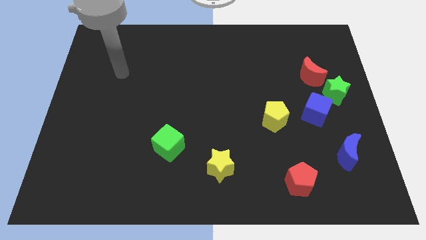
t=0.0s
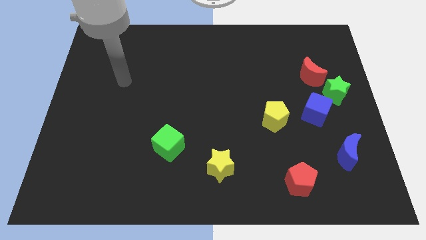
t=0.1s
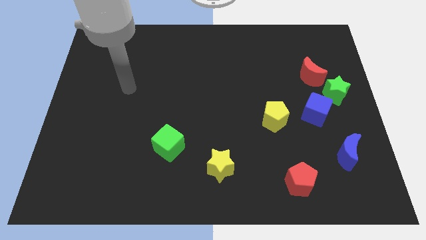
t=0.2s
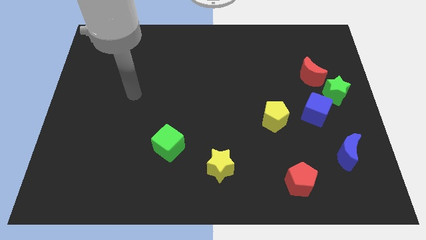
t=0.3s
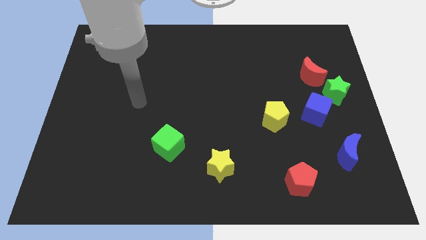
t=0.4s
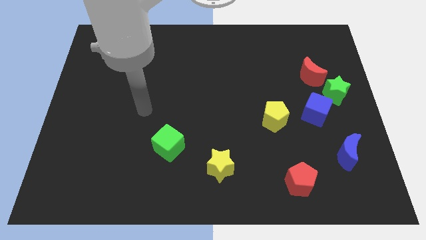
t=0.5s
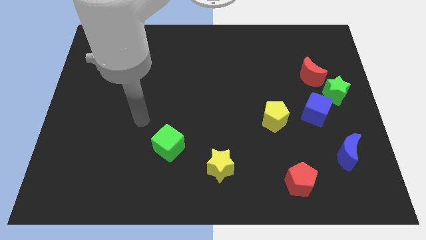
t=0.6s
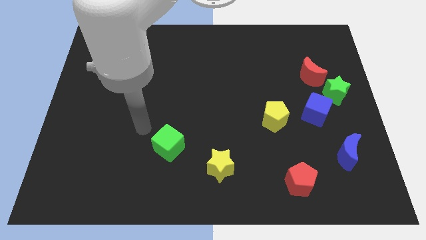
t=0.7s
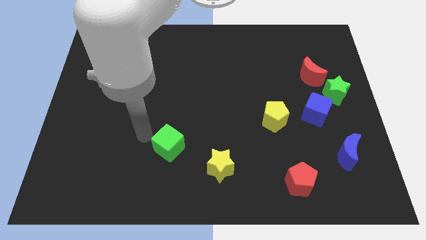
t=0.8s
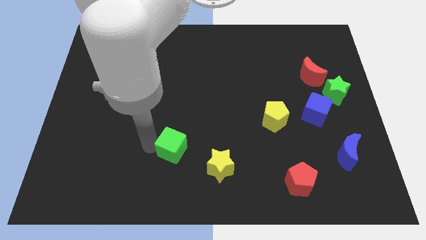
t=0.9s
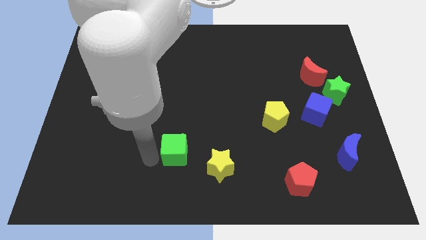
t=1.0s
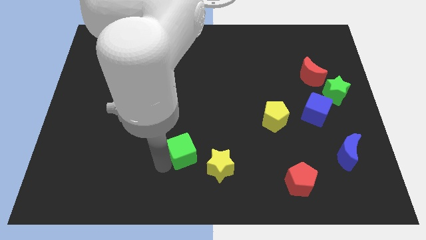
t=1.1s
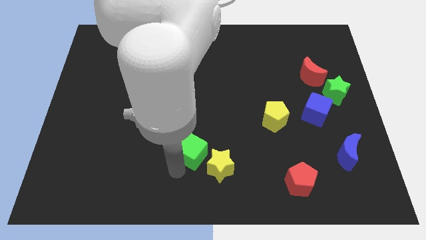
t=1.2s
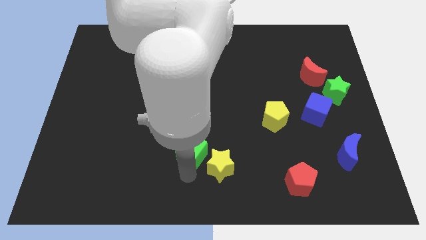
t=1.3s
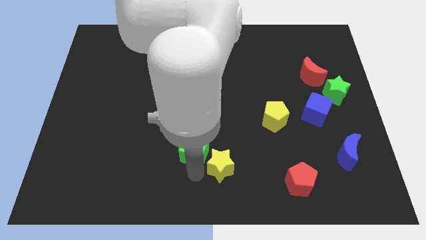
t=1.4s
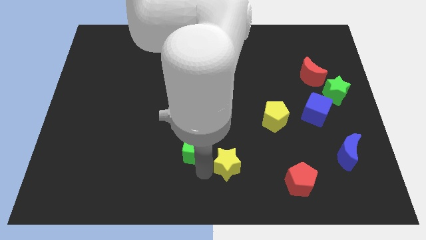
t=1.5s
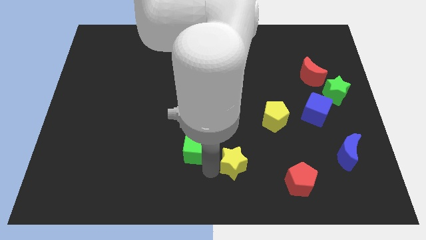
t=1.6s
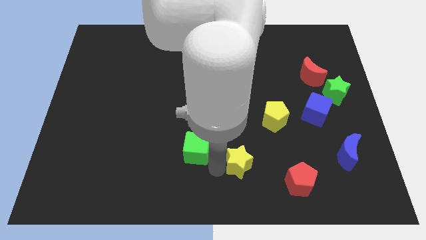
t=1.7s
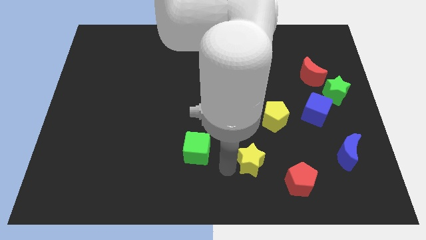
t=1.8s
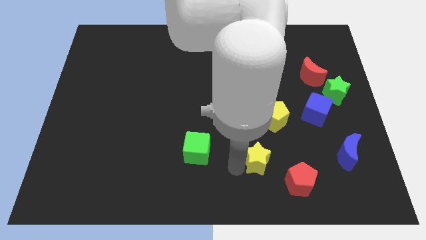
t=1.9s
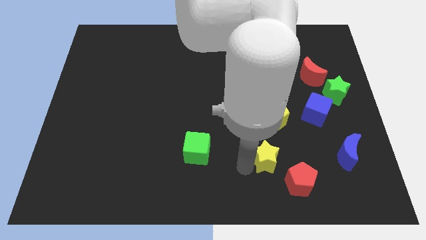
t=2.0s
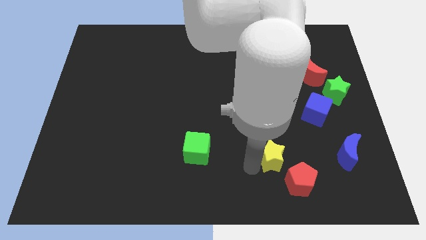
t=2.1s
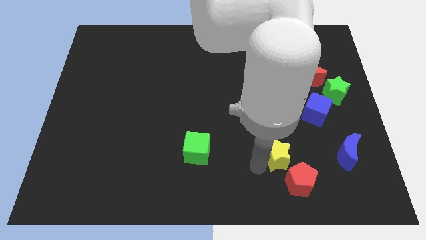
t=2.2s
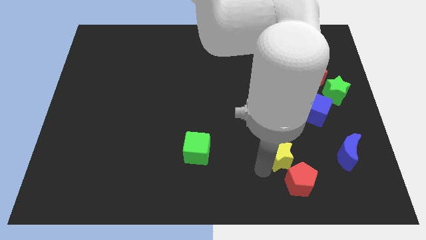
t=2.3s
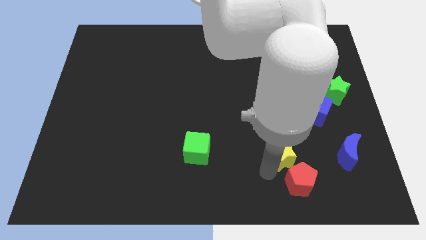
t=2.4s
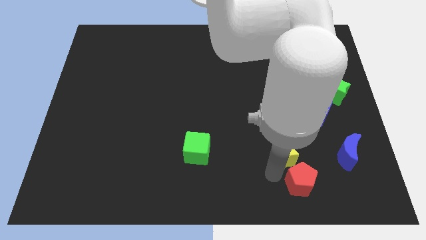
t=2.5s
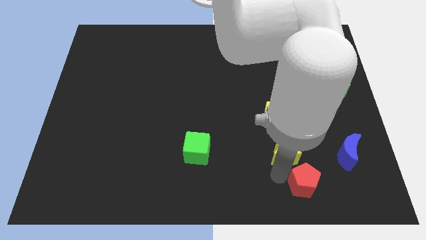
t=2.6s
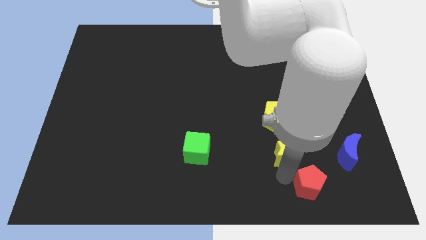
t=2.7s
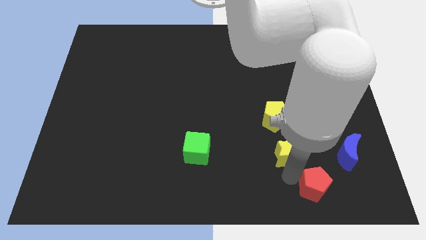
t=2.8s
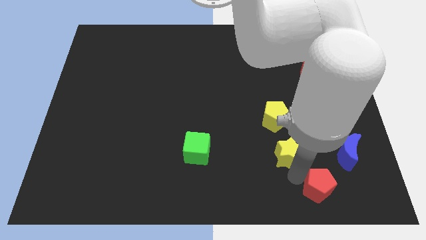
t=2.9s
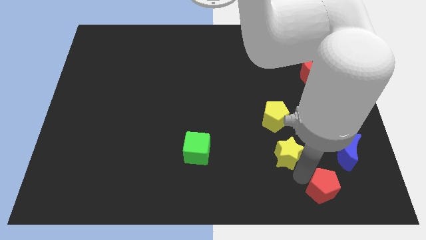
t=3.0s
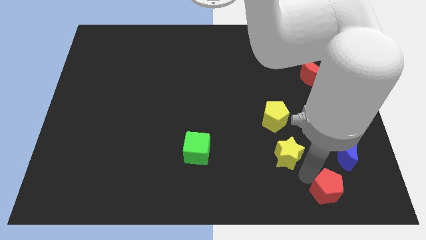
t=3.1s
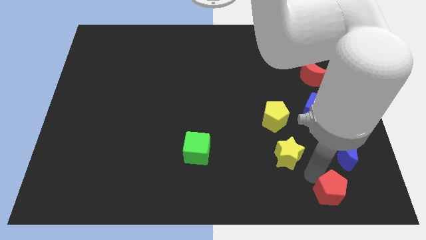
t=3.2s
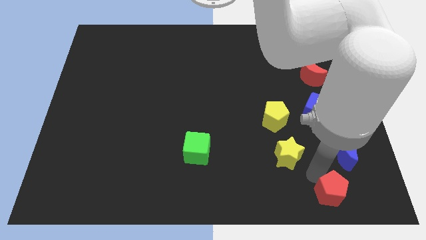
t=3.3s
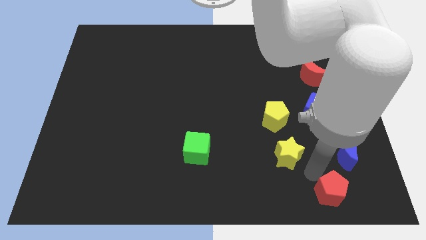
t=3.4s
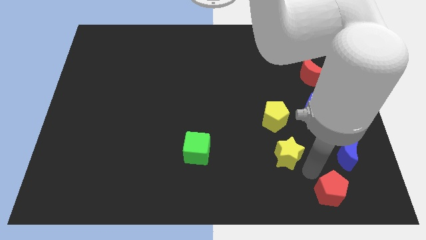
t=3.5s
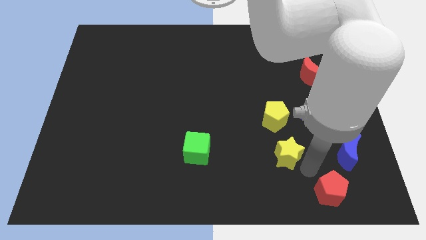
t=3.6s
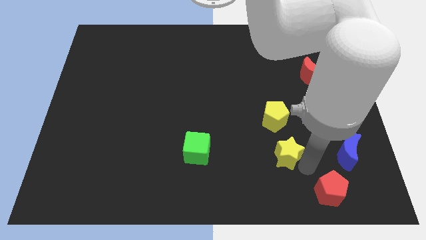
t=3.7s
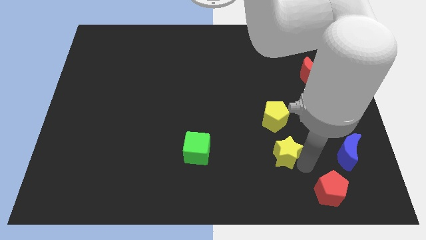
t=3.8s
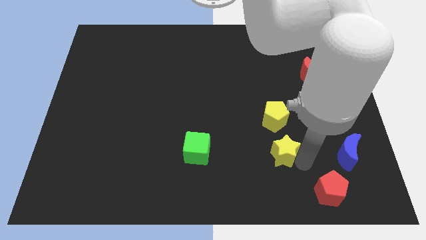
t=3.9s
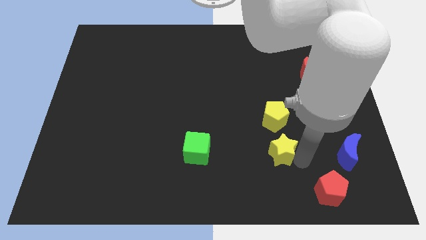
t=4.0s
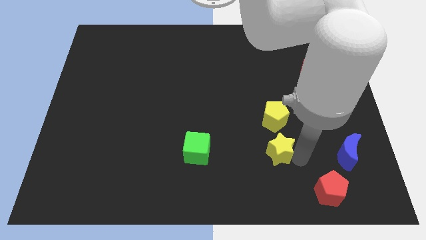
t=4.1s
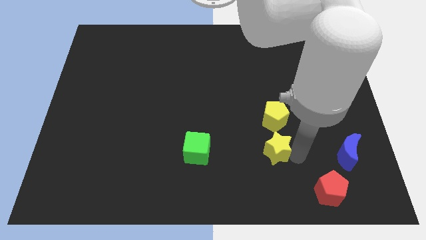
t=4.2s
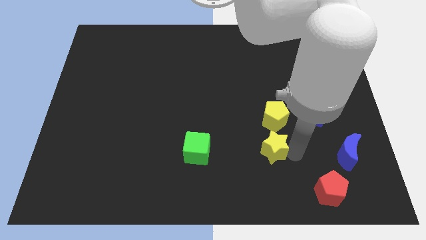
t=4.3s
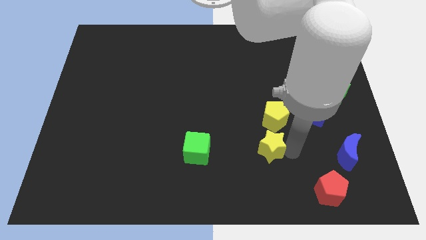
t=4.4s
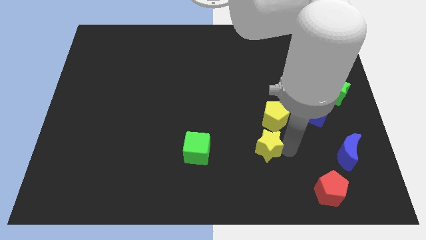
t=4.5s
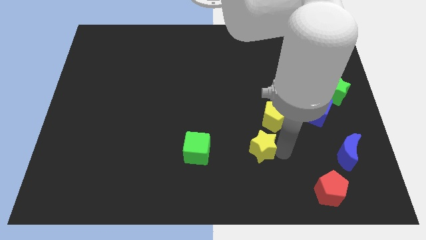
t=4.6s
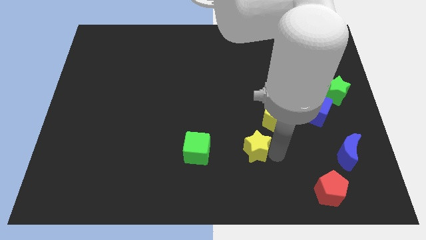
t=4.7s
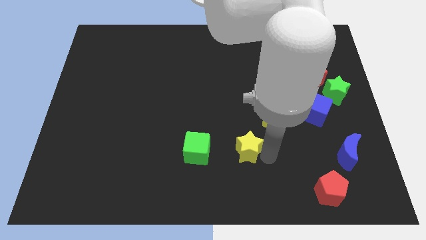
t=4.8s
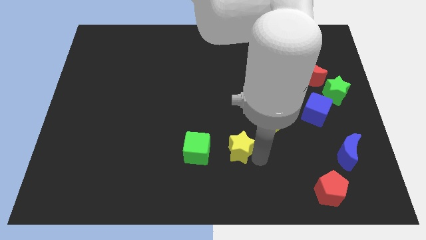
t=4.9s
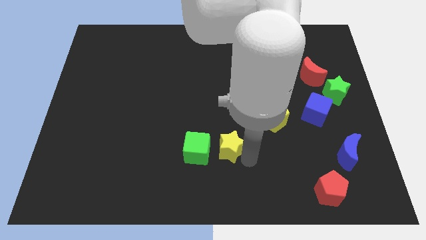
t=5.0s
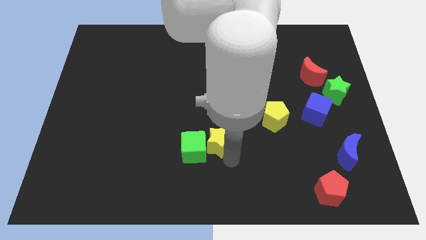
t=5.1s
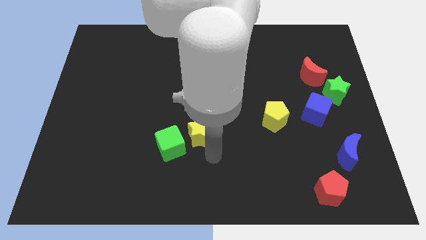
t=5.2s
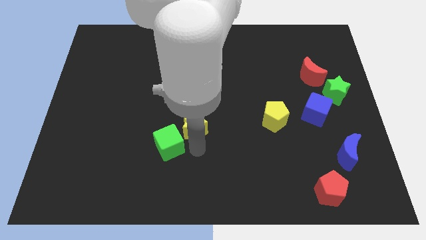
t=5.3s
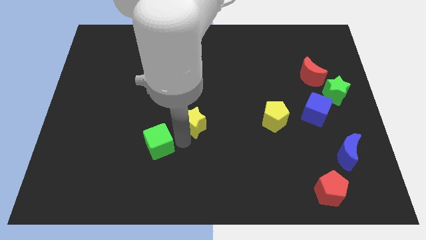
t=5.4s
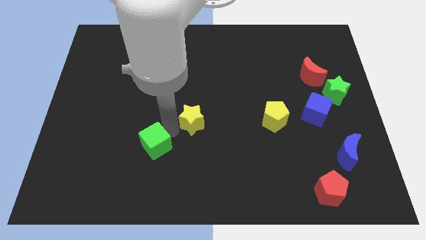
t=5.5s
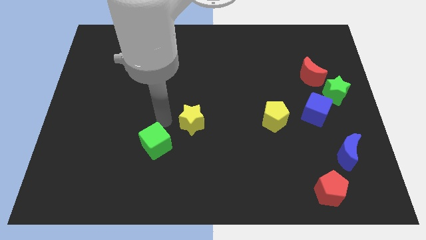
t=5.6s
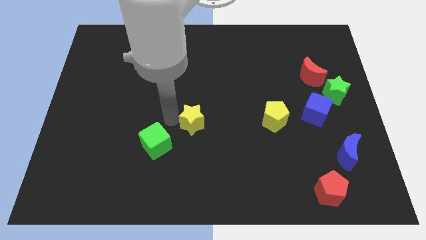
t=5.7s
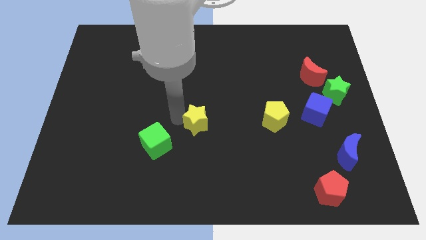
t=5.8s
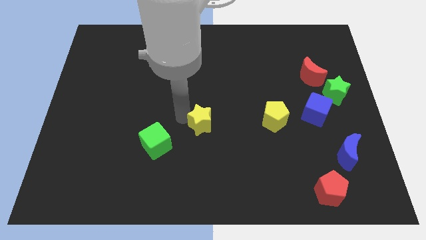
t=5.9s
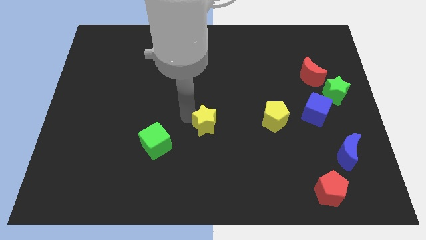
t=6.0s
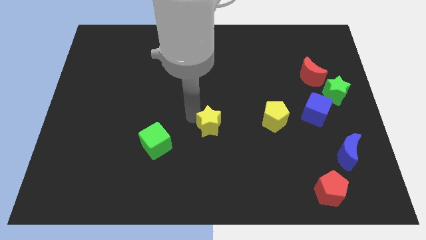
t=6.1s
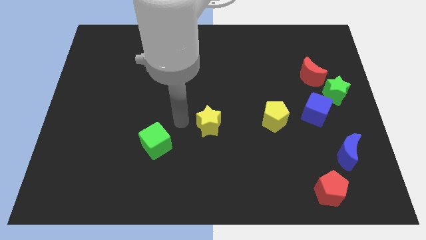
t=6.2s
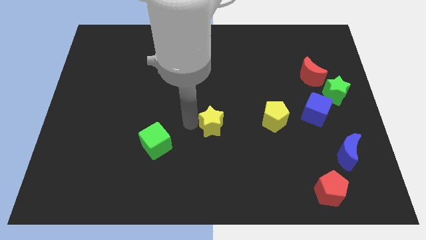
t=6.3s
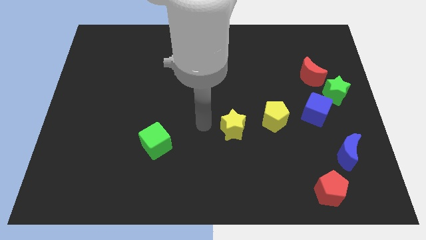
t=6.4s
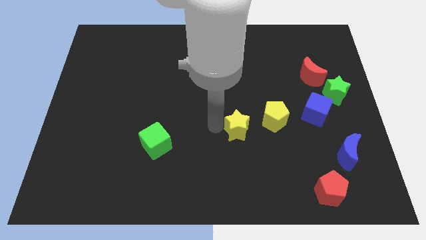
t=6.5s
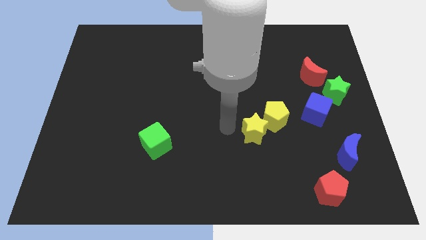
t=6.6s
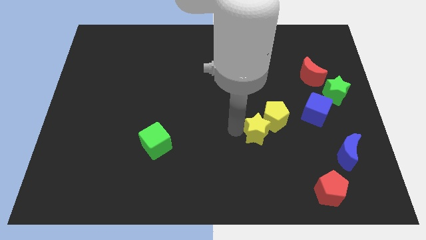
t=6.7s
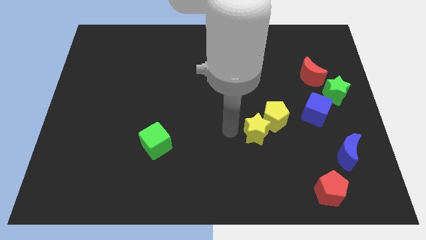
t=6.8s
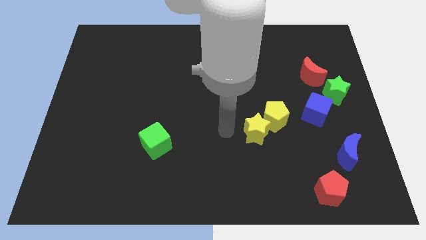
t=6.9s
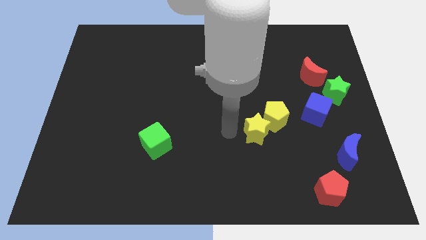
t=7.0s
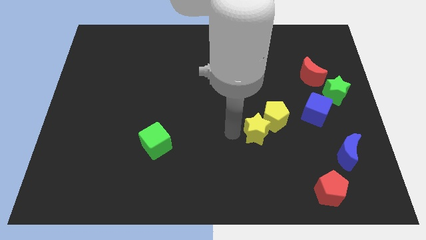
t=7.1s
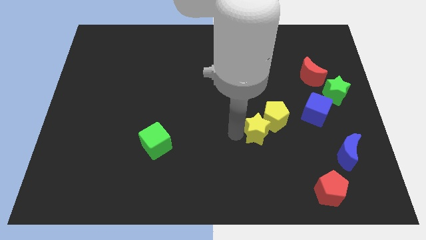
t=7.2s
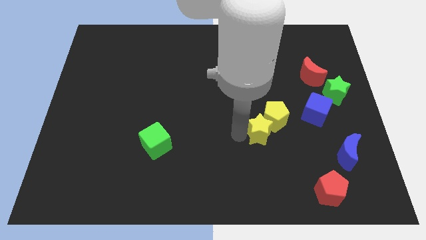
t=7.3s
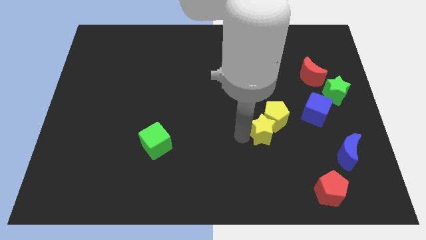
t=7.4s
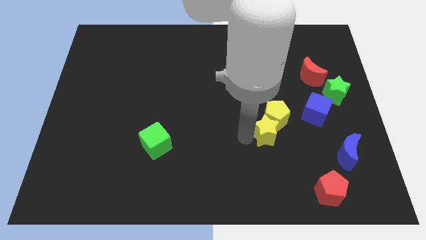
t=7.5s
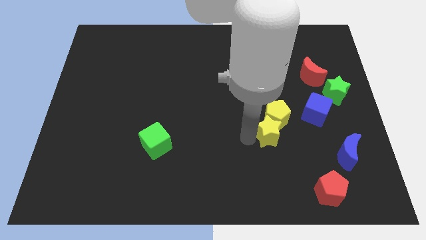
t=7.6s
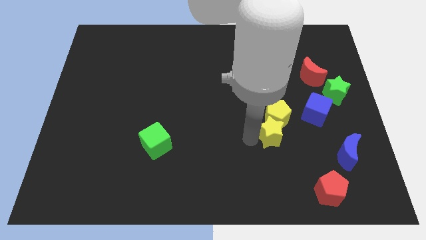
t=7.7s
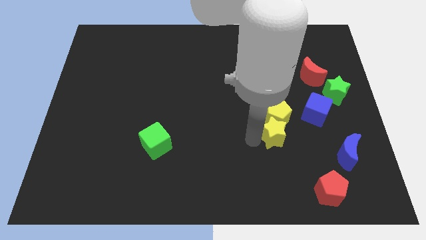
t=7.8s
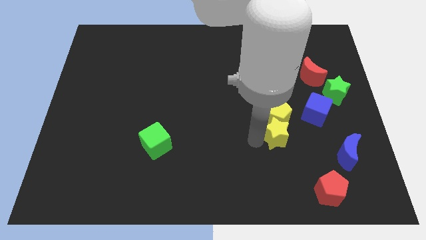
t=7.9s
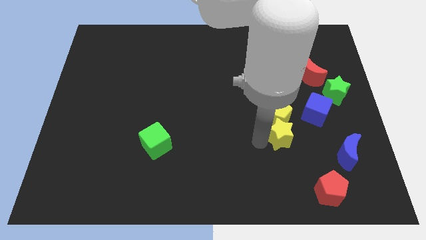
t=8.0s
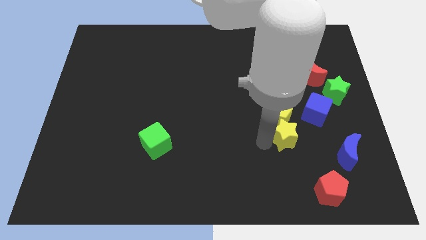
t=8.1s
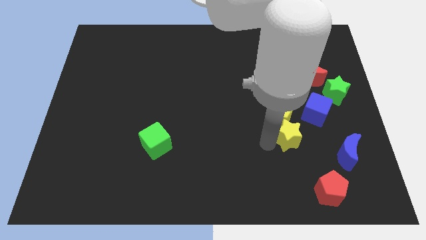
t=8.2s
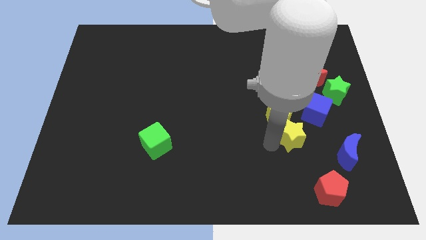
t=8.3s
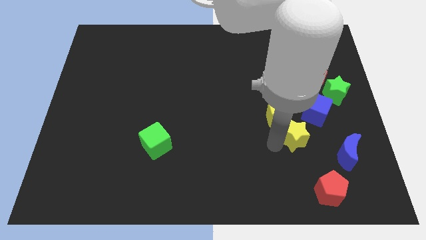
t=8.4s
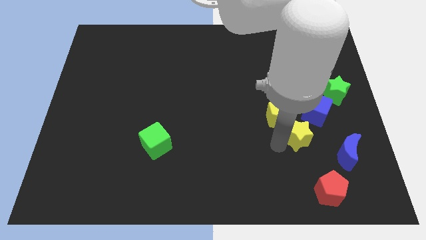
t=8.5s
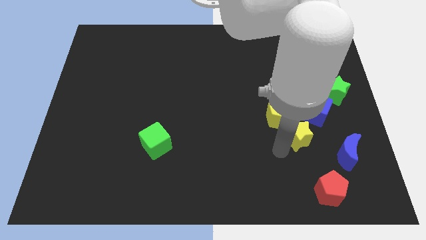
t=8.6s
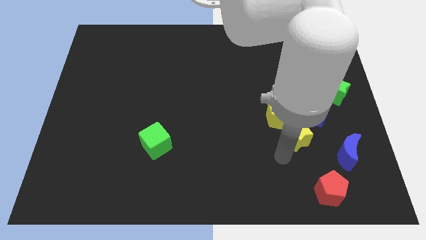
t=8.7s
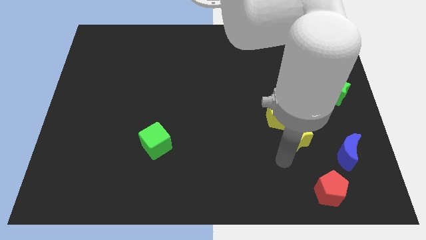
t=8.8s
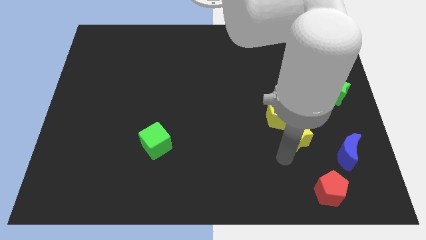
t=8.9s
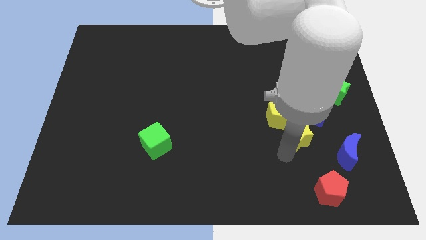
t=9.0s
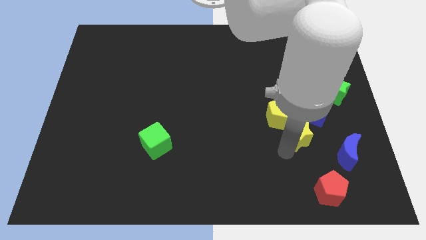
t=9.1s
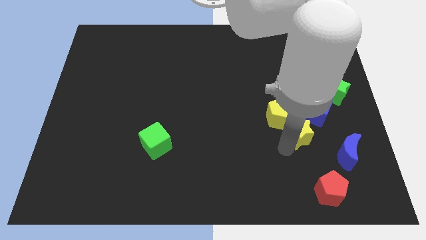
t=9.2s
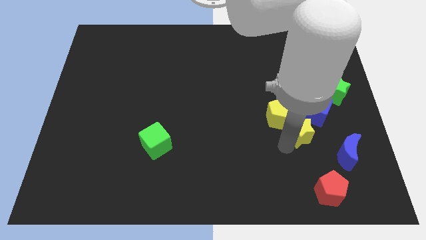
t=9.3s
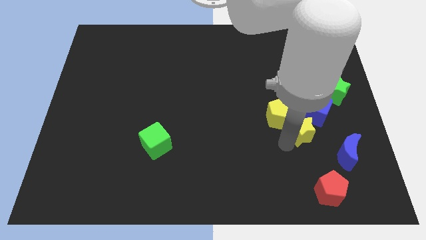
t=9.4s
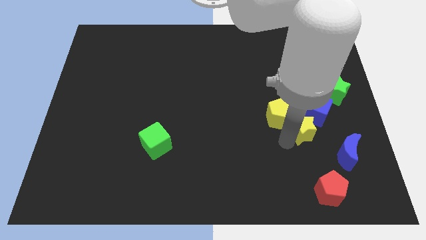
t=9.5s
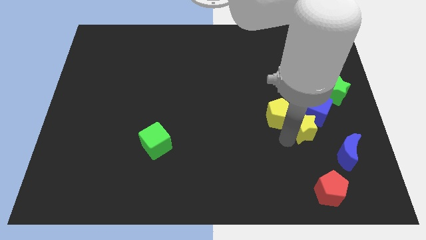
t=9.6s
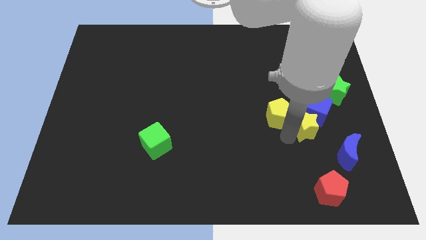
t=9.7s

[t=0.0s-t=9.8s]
slide the yellow star to the blue cube
